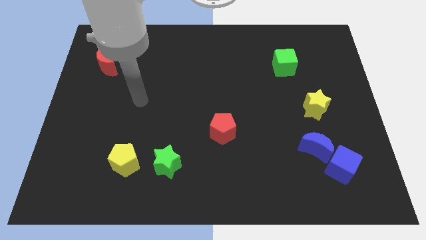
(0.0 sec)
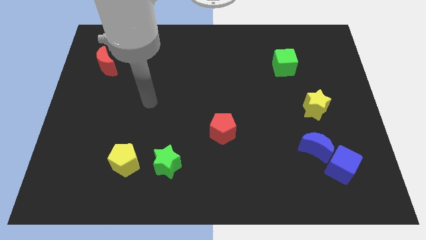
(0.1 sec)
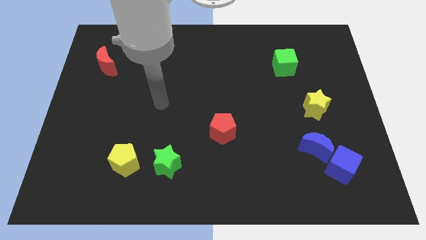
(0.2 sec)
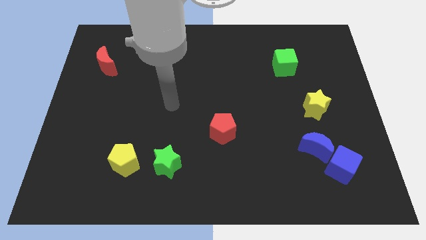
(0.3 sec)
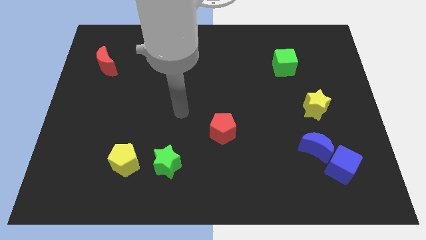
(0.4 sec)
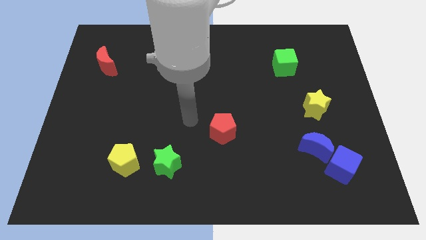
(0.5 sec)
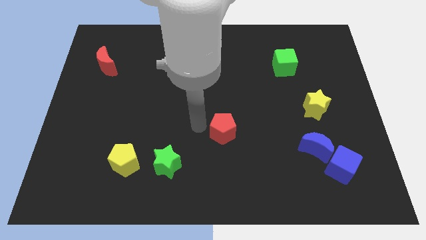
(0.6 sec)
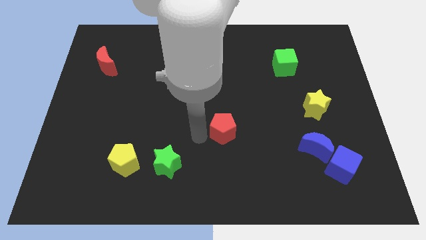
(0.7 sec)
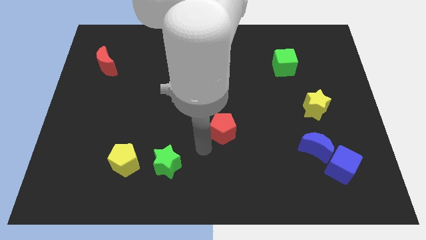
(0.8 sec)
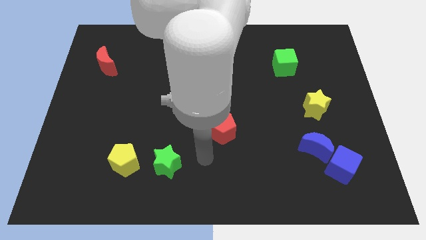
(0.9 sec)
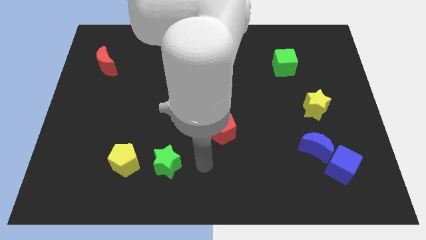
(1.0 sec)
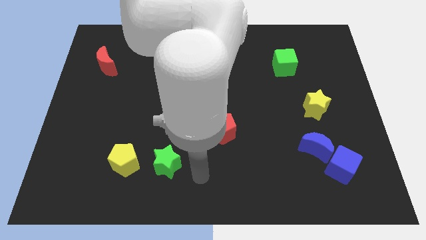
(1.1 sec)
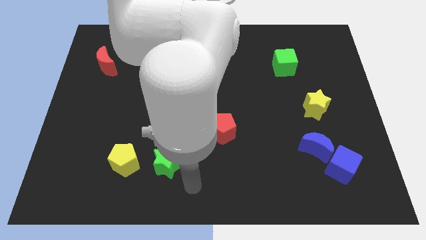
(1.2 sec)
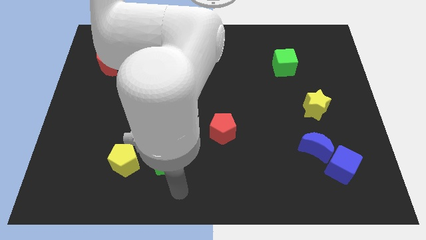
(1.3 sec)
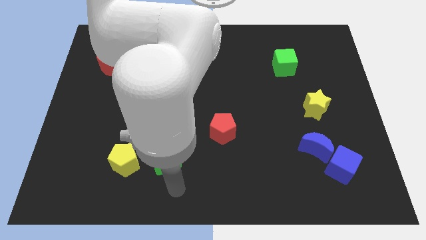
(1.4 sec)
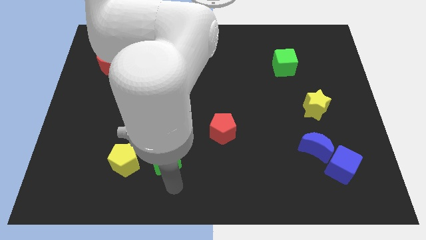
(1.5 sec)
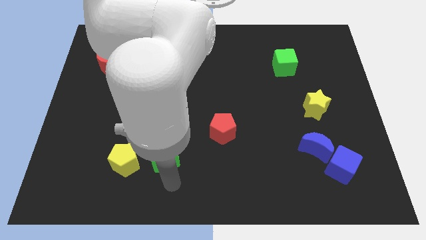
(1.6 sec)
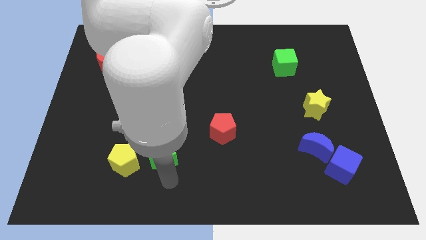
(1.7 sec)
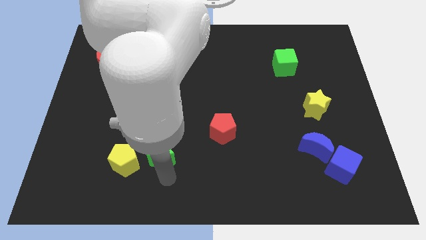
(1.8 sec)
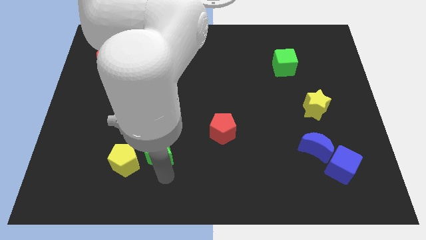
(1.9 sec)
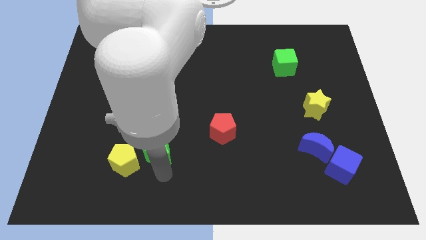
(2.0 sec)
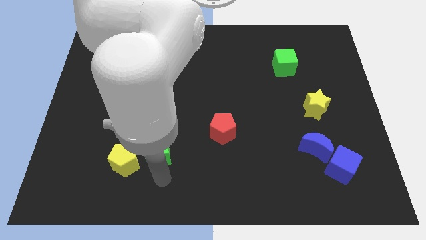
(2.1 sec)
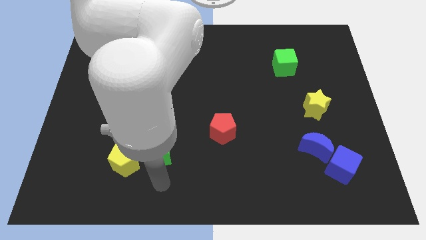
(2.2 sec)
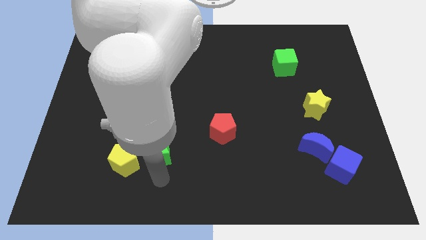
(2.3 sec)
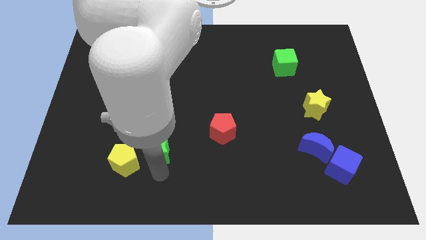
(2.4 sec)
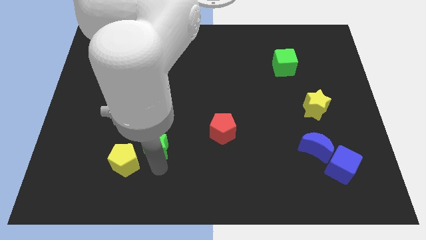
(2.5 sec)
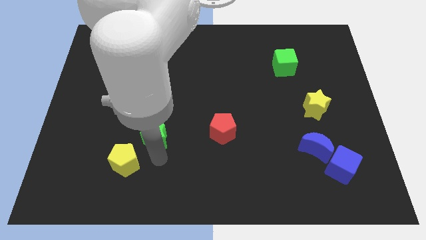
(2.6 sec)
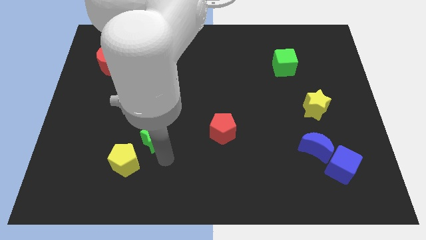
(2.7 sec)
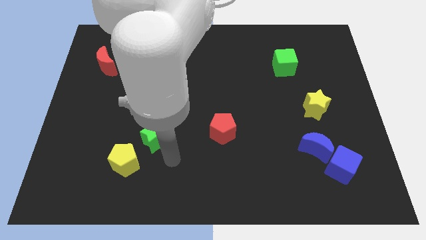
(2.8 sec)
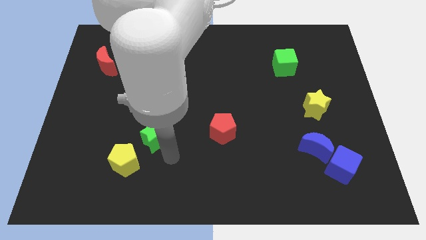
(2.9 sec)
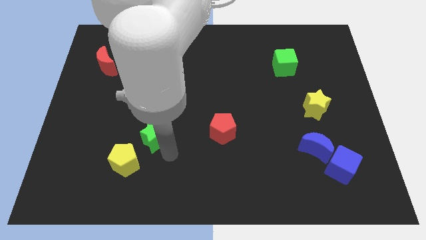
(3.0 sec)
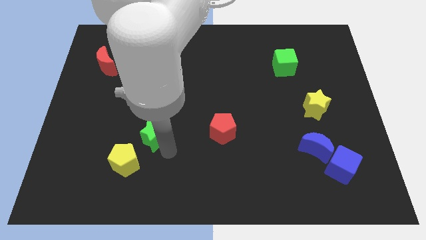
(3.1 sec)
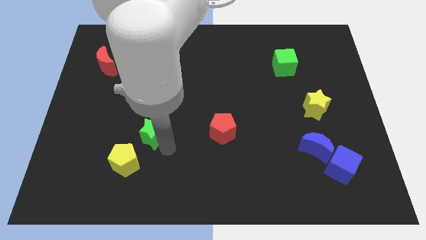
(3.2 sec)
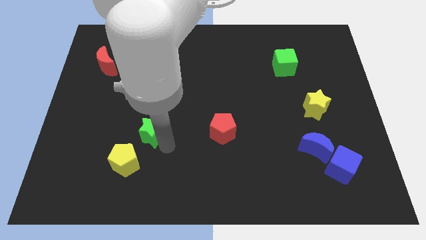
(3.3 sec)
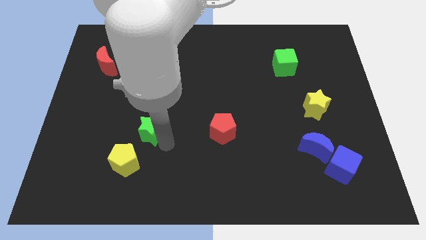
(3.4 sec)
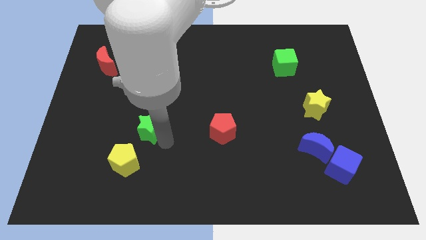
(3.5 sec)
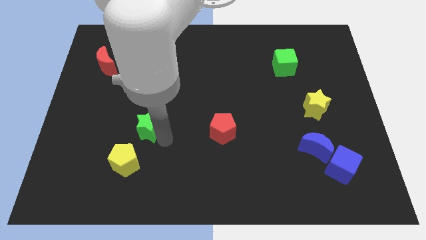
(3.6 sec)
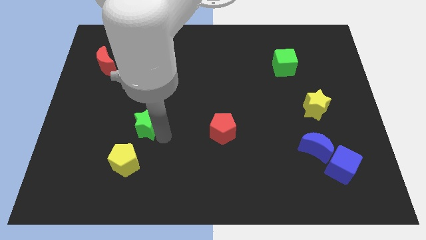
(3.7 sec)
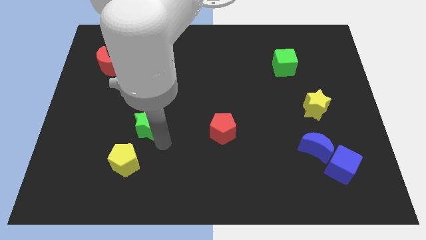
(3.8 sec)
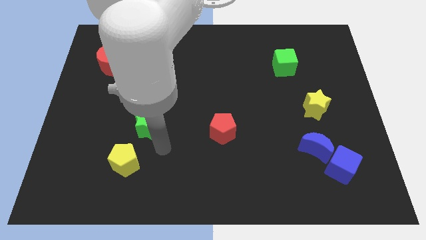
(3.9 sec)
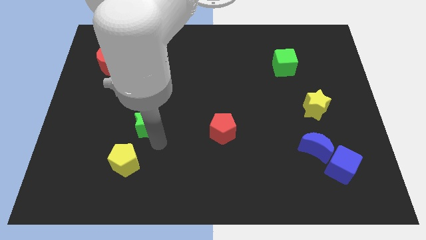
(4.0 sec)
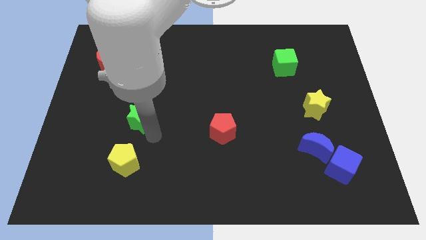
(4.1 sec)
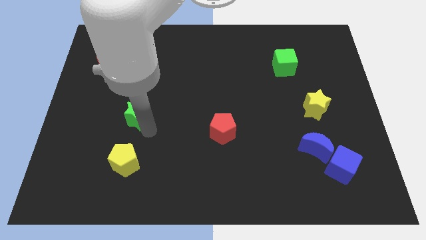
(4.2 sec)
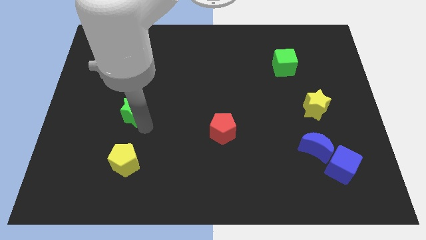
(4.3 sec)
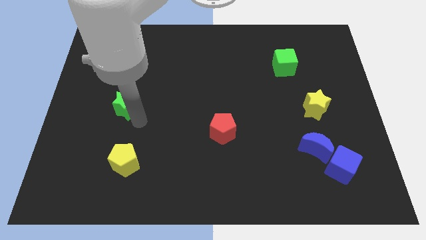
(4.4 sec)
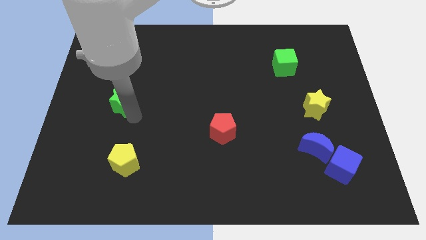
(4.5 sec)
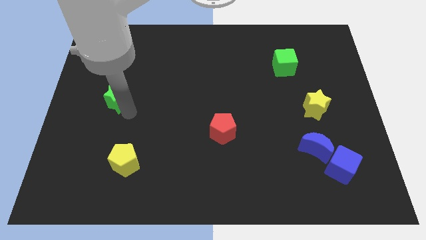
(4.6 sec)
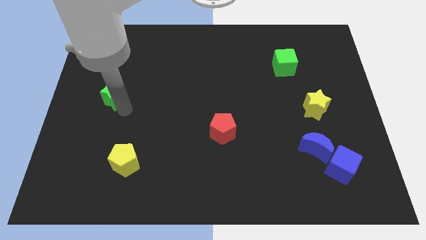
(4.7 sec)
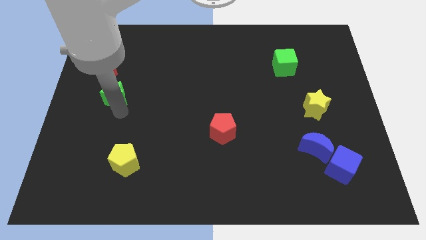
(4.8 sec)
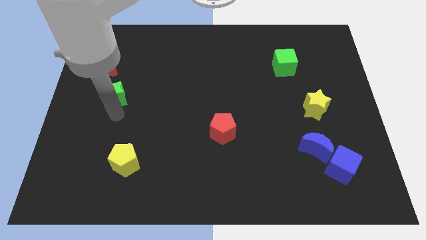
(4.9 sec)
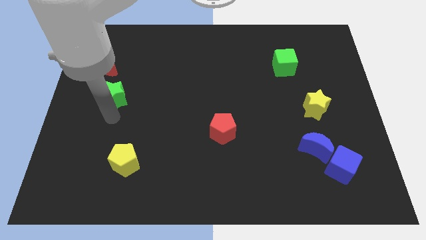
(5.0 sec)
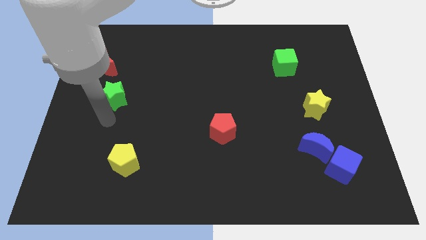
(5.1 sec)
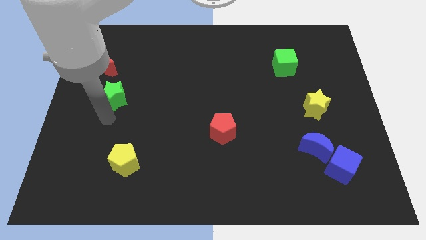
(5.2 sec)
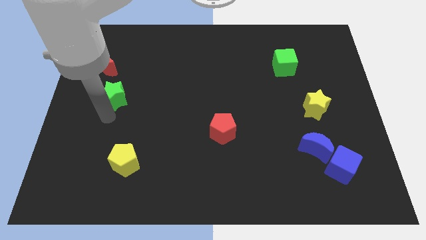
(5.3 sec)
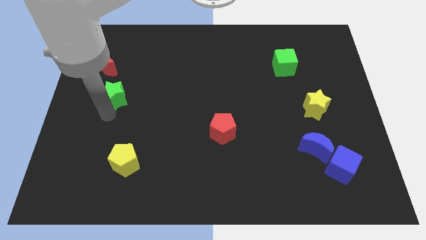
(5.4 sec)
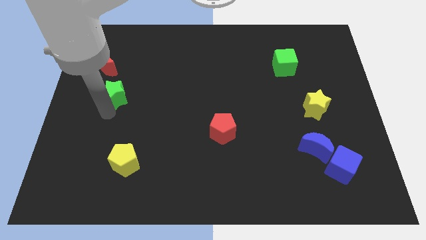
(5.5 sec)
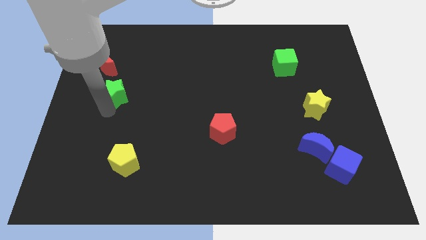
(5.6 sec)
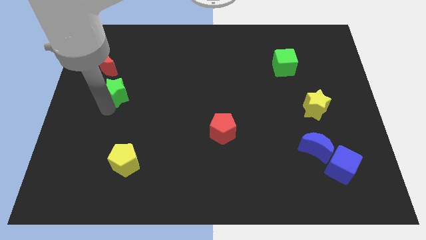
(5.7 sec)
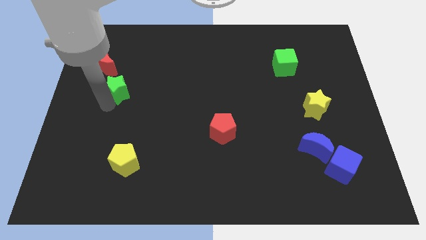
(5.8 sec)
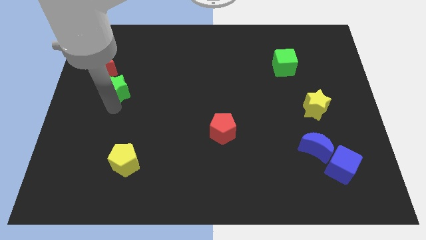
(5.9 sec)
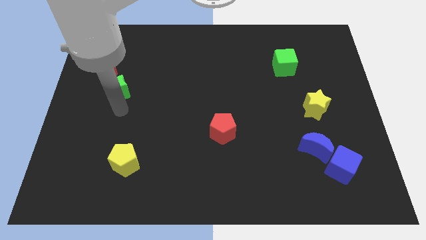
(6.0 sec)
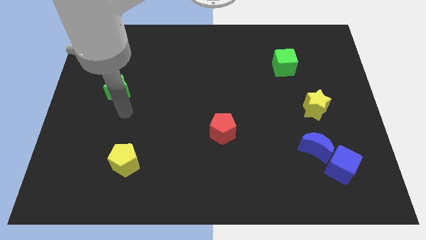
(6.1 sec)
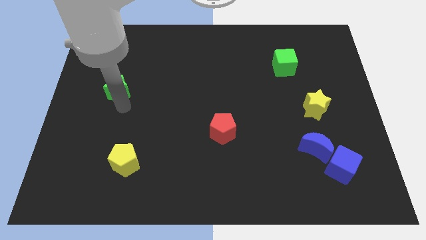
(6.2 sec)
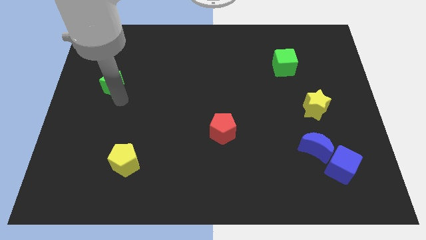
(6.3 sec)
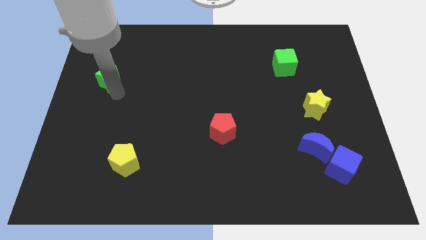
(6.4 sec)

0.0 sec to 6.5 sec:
move the green star close to the red moon

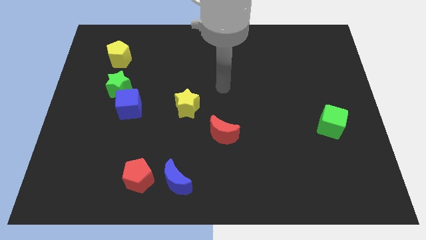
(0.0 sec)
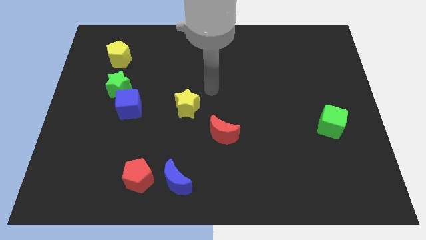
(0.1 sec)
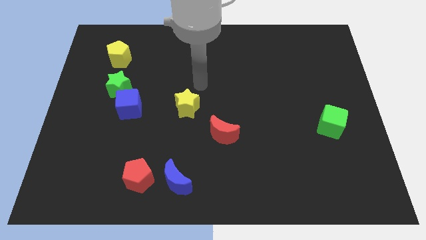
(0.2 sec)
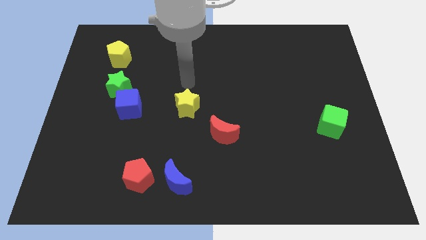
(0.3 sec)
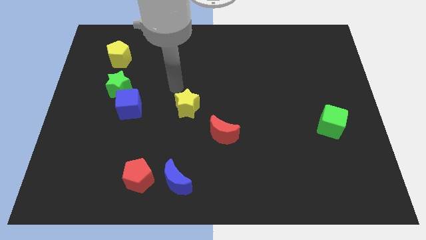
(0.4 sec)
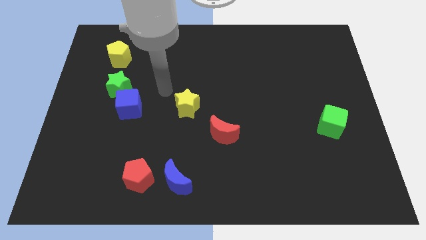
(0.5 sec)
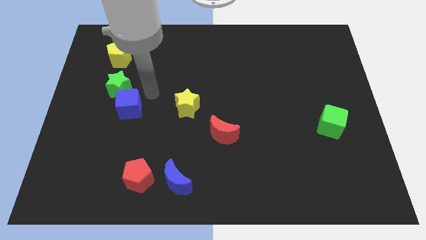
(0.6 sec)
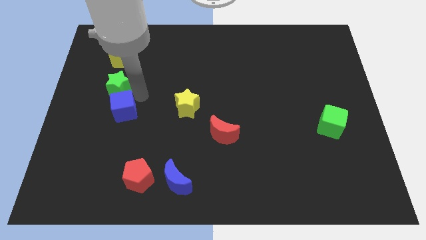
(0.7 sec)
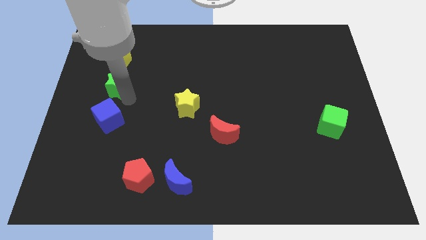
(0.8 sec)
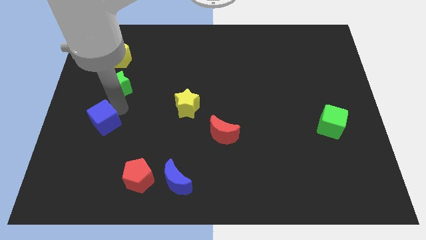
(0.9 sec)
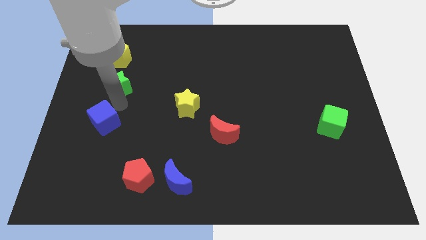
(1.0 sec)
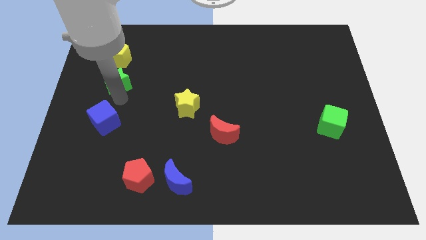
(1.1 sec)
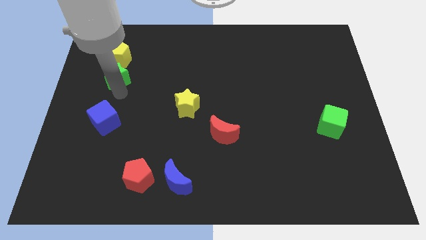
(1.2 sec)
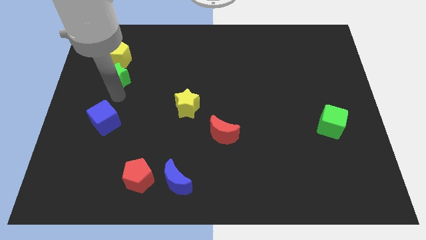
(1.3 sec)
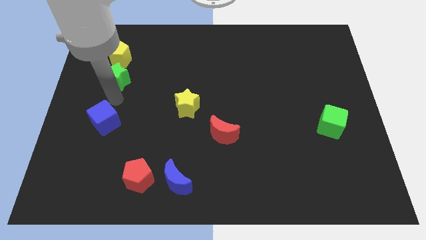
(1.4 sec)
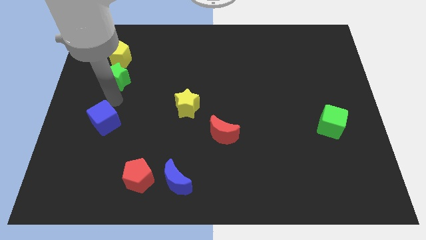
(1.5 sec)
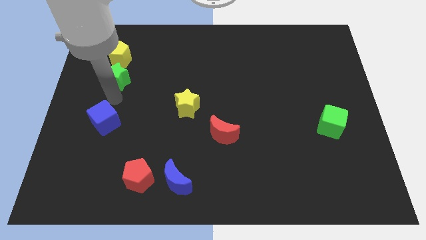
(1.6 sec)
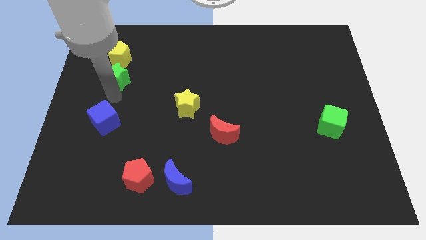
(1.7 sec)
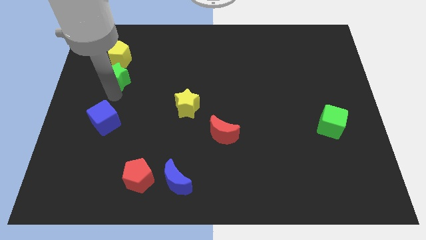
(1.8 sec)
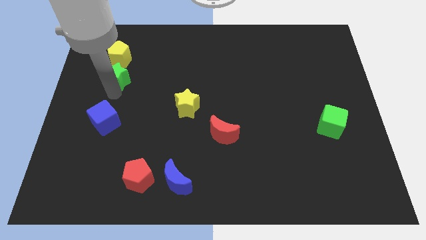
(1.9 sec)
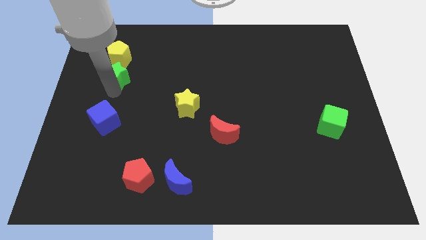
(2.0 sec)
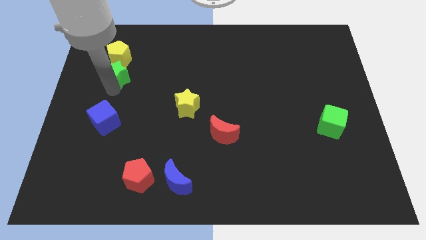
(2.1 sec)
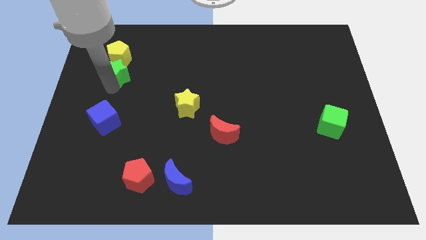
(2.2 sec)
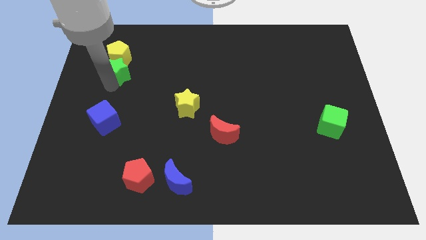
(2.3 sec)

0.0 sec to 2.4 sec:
slide the green star to the yellow pentagon
